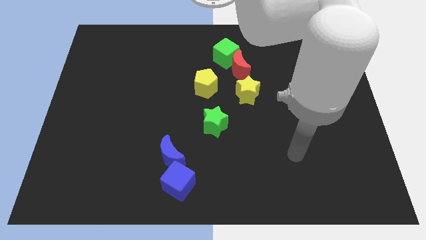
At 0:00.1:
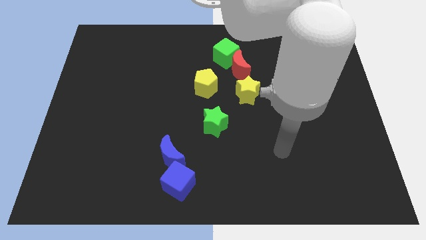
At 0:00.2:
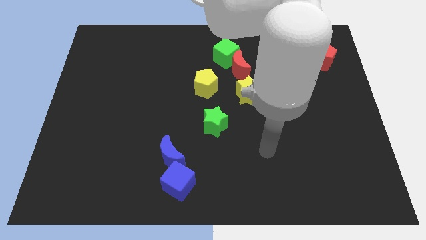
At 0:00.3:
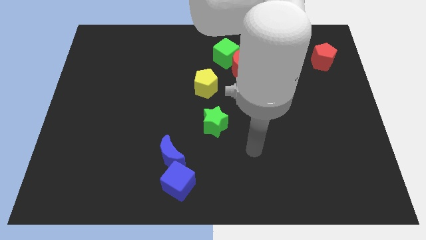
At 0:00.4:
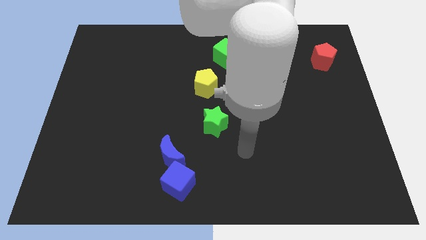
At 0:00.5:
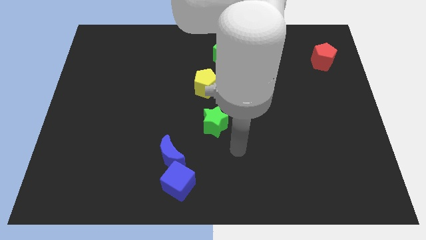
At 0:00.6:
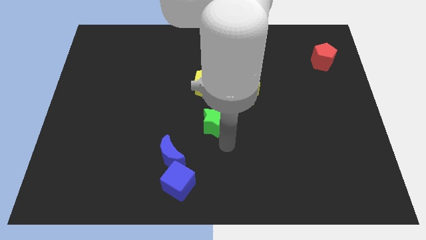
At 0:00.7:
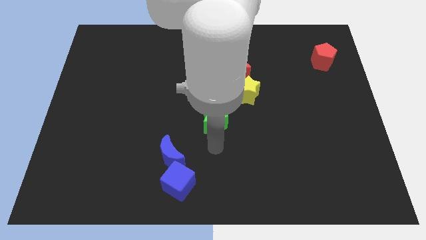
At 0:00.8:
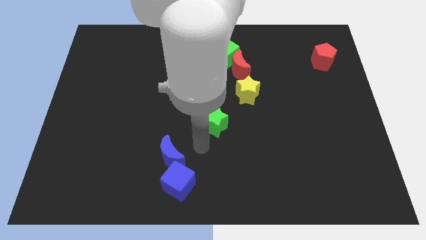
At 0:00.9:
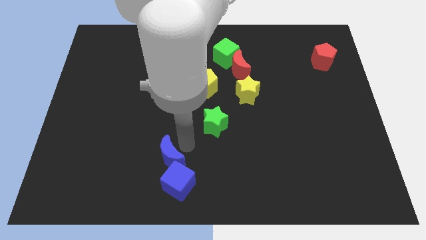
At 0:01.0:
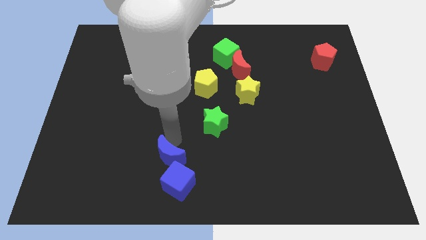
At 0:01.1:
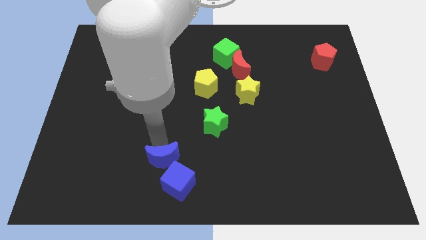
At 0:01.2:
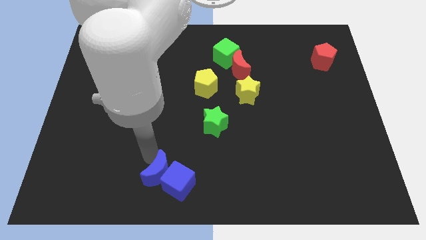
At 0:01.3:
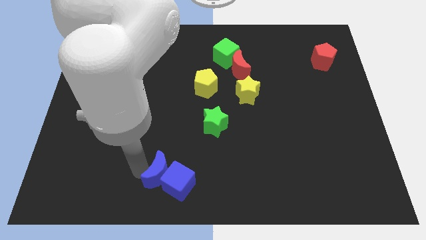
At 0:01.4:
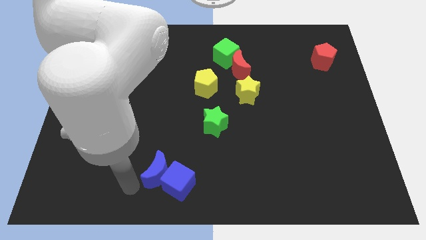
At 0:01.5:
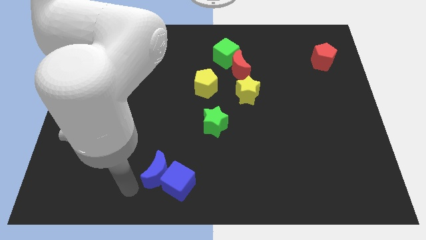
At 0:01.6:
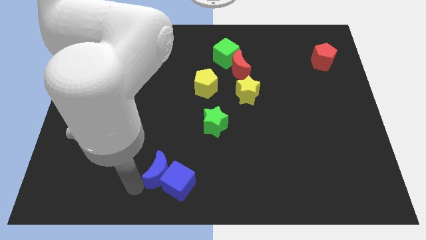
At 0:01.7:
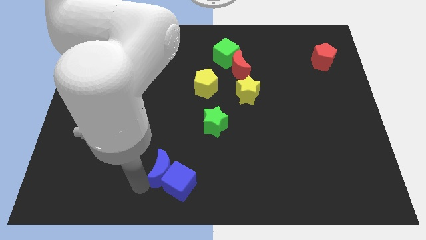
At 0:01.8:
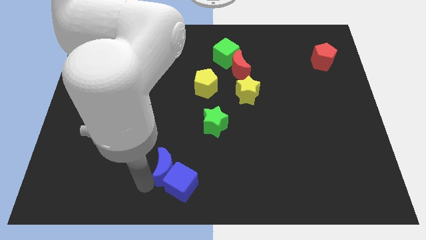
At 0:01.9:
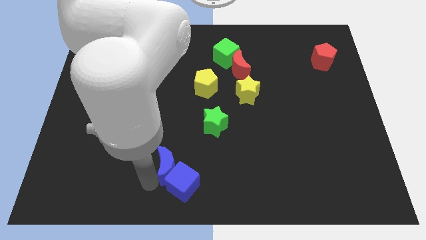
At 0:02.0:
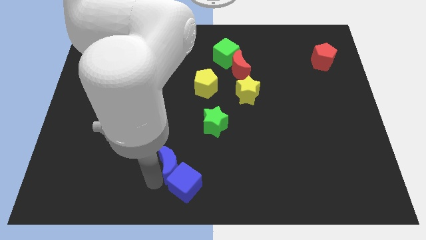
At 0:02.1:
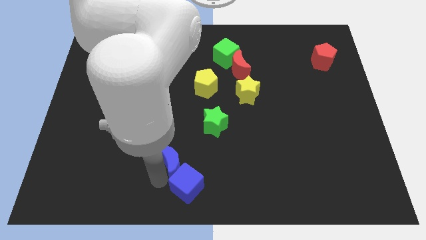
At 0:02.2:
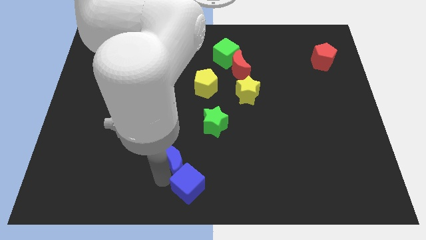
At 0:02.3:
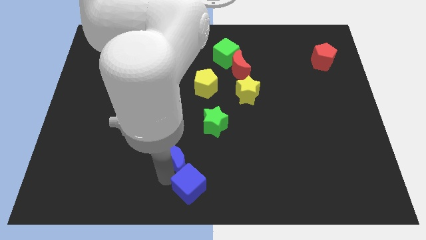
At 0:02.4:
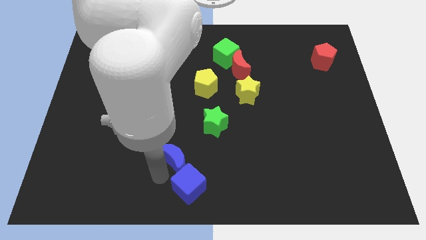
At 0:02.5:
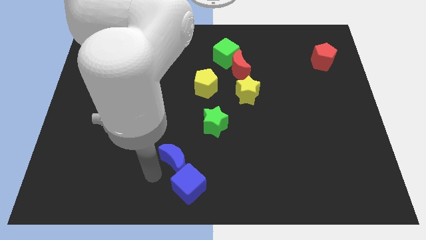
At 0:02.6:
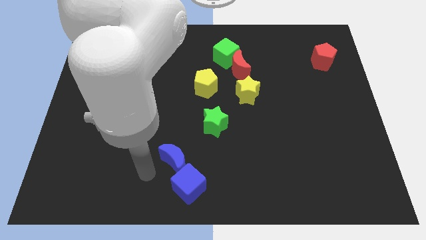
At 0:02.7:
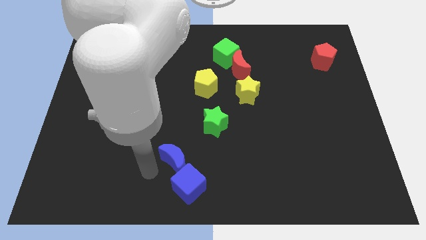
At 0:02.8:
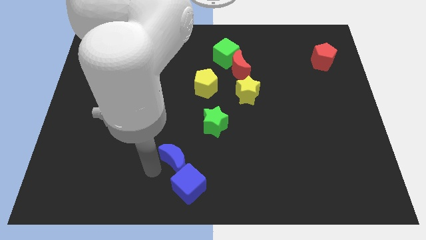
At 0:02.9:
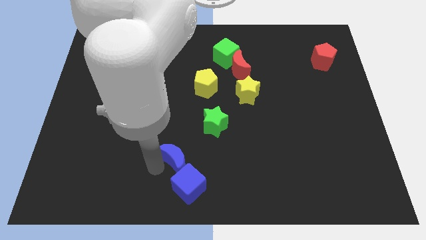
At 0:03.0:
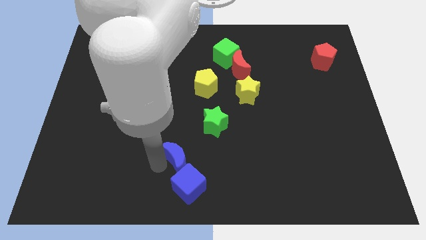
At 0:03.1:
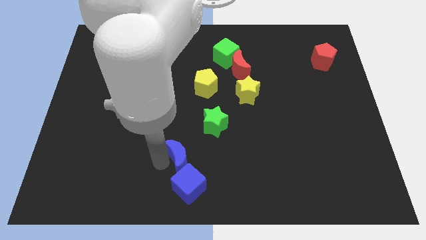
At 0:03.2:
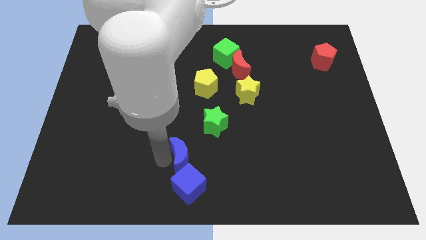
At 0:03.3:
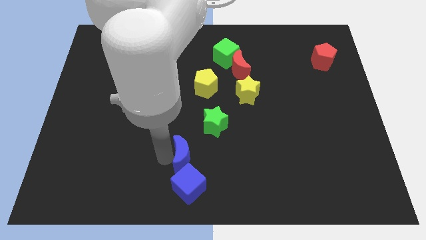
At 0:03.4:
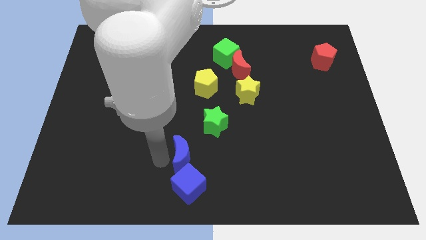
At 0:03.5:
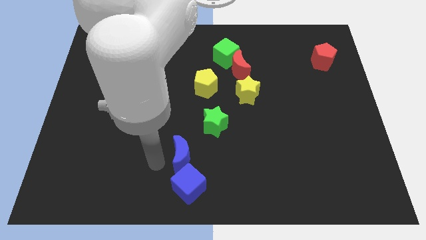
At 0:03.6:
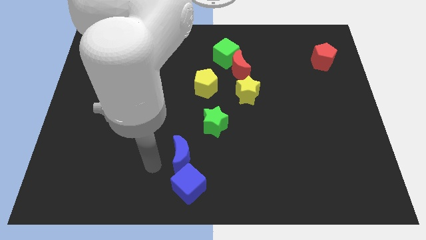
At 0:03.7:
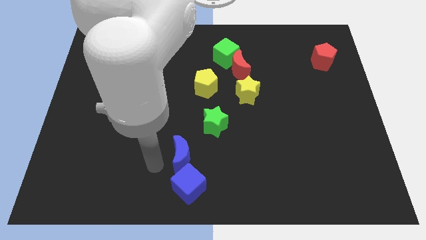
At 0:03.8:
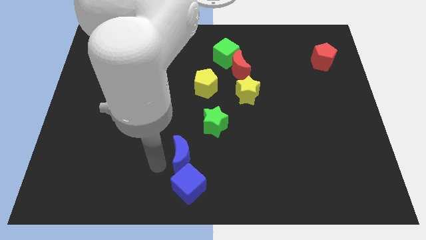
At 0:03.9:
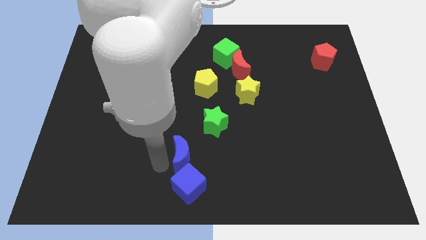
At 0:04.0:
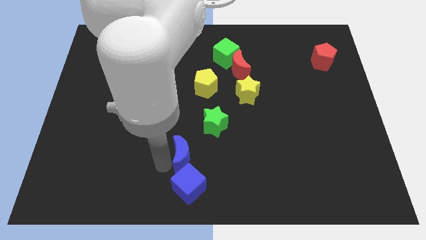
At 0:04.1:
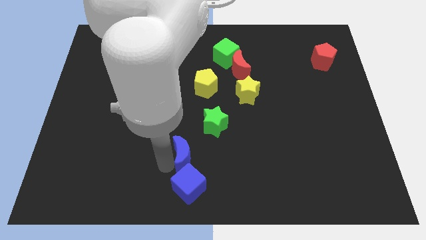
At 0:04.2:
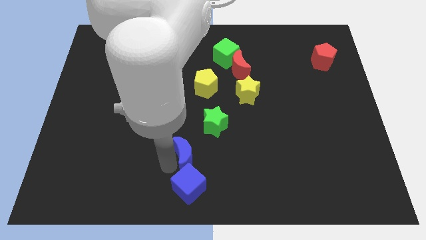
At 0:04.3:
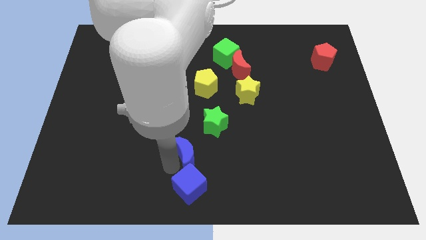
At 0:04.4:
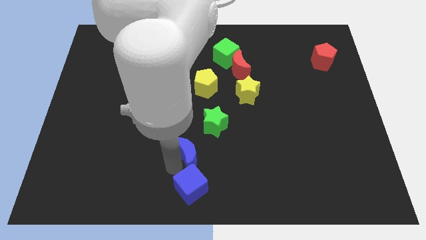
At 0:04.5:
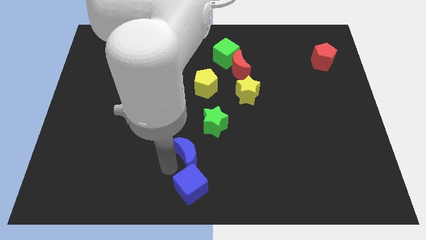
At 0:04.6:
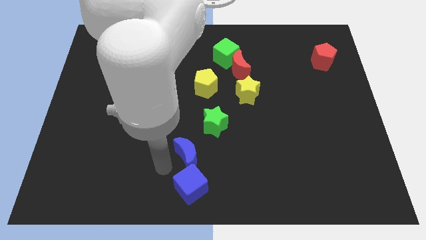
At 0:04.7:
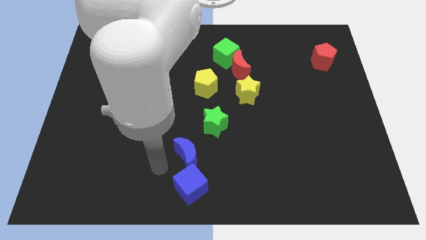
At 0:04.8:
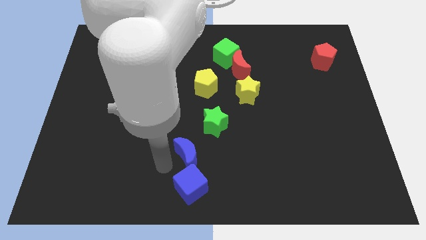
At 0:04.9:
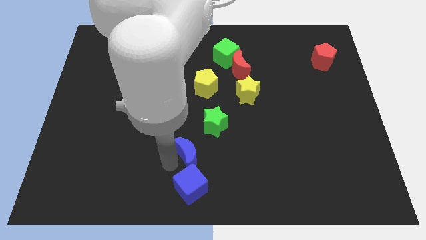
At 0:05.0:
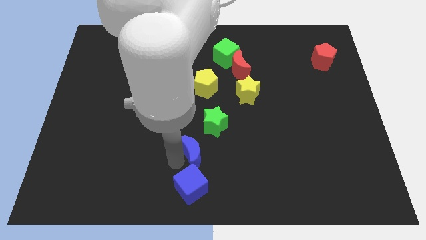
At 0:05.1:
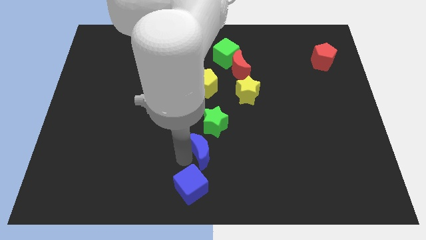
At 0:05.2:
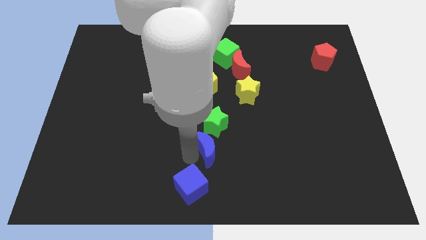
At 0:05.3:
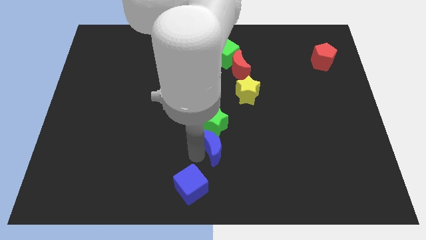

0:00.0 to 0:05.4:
slide the blue moon to the bottom right side of the green star

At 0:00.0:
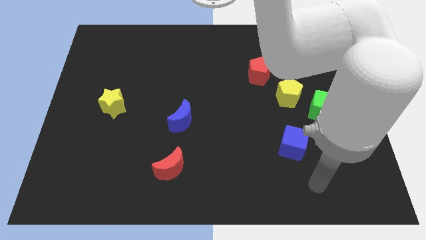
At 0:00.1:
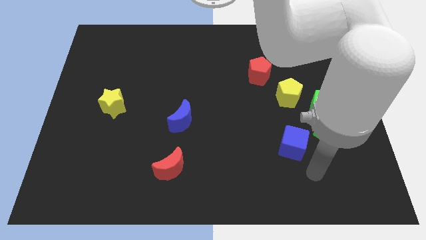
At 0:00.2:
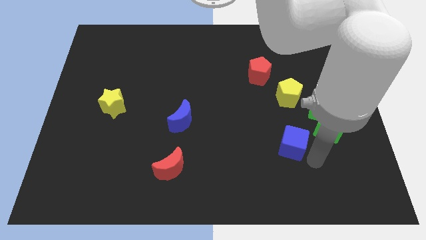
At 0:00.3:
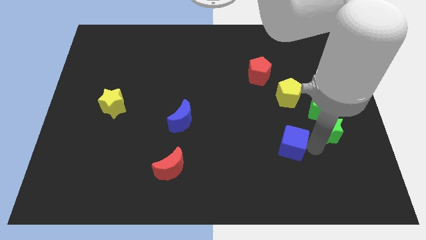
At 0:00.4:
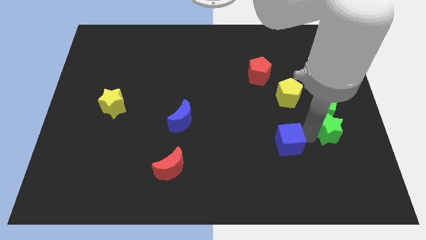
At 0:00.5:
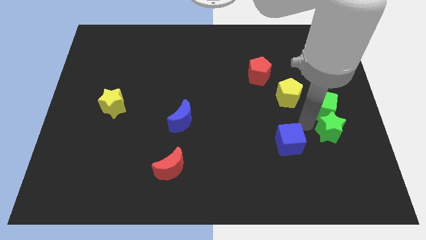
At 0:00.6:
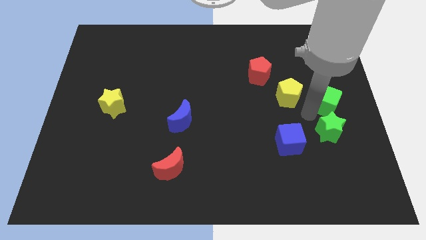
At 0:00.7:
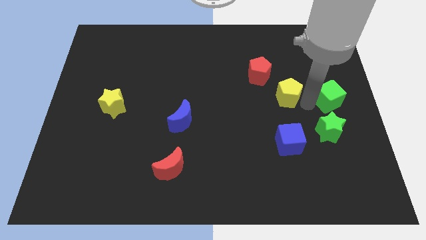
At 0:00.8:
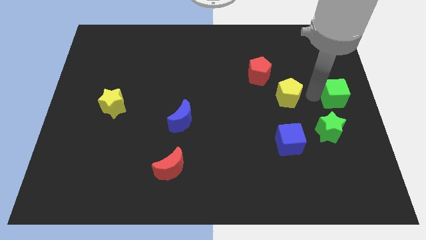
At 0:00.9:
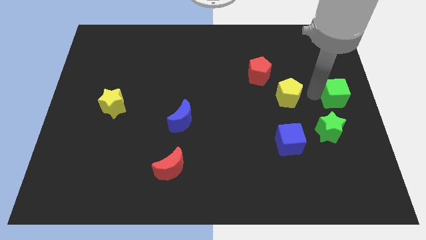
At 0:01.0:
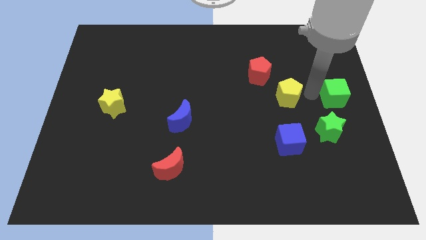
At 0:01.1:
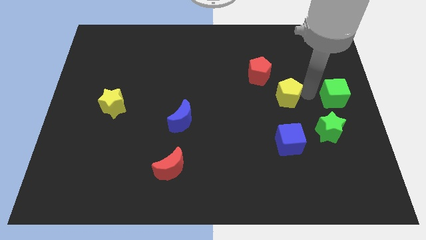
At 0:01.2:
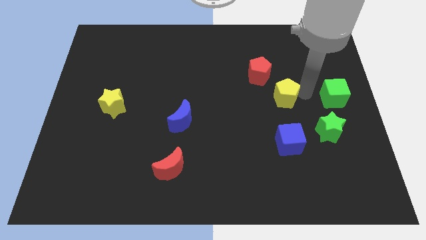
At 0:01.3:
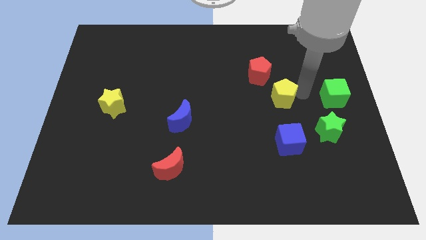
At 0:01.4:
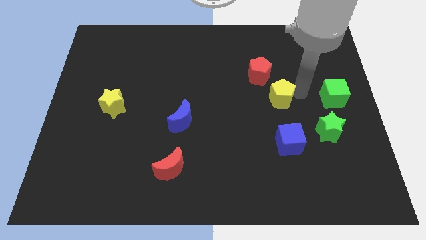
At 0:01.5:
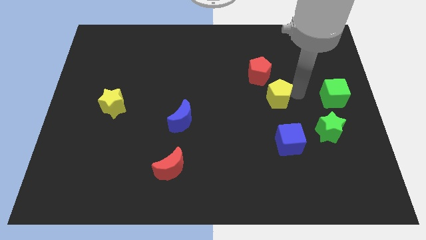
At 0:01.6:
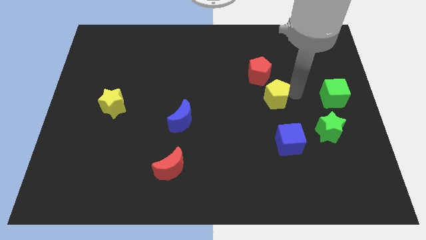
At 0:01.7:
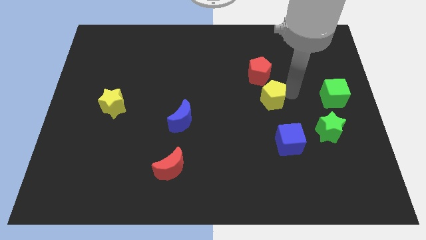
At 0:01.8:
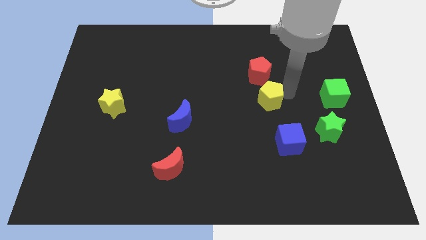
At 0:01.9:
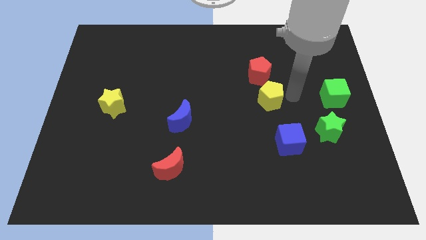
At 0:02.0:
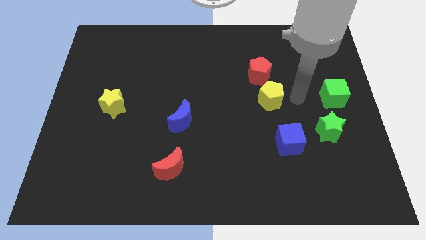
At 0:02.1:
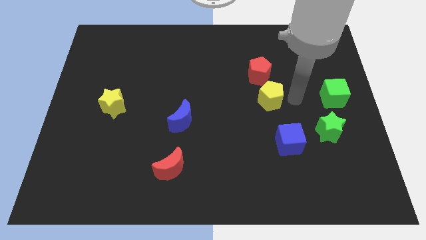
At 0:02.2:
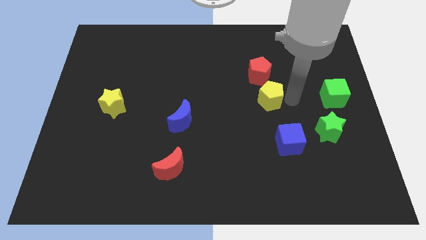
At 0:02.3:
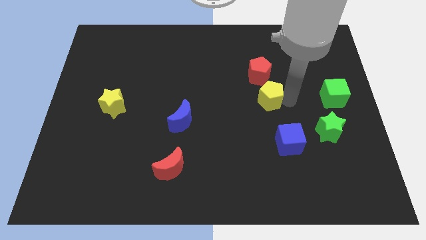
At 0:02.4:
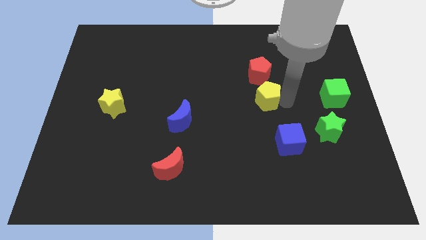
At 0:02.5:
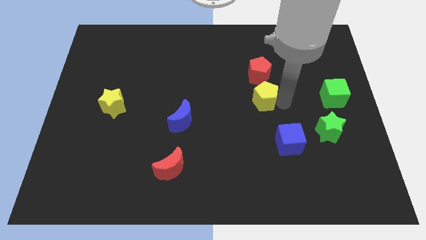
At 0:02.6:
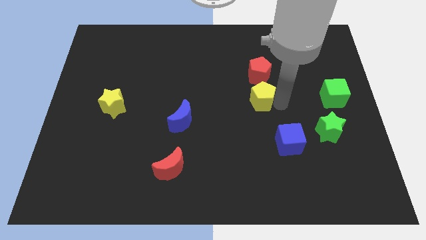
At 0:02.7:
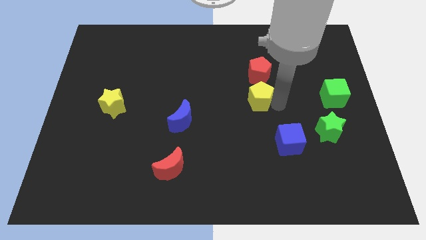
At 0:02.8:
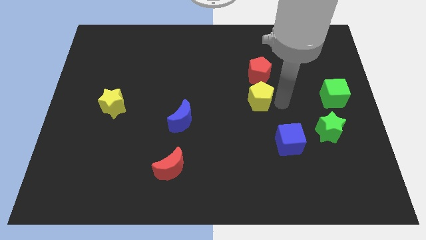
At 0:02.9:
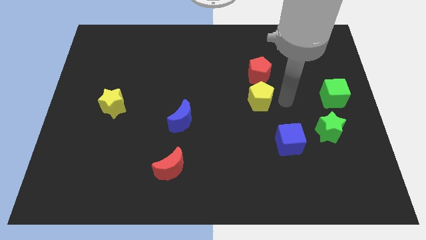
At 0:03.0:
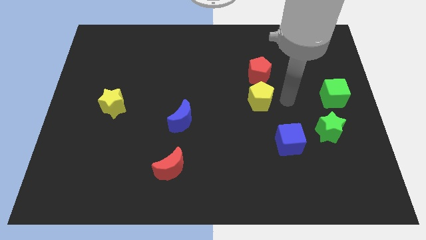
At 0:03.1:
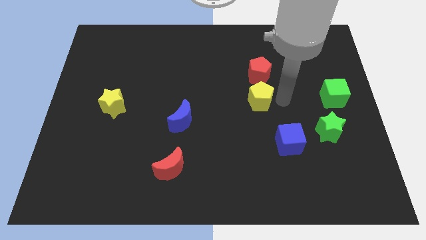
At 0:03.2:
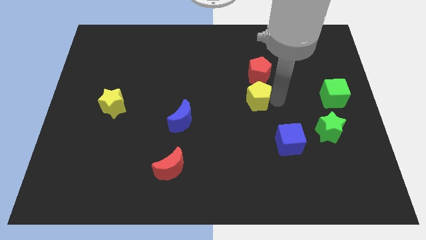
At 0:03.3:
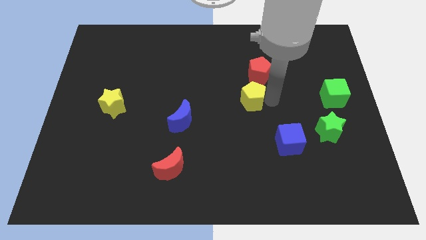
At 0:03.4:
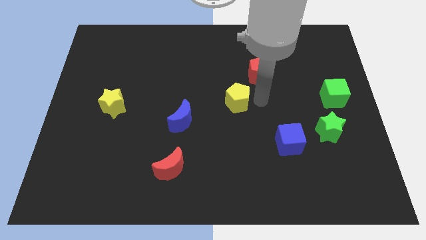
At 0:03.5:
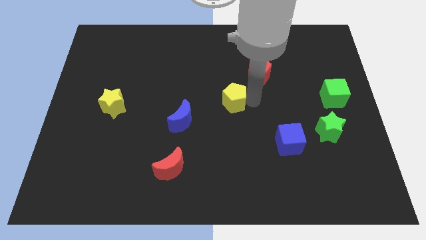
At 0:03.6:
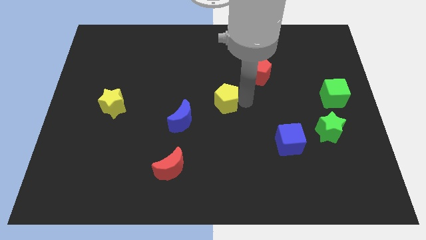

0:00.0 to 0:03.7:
slide the yellow pentagon diagonally up and to the right of the blue moon
